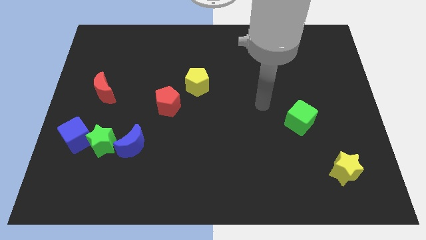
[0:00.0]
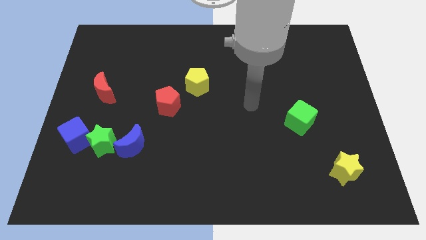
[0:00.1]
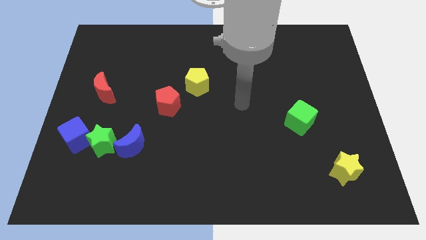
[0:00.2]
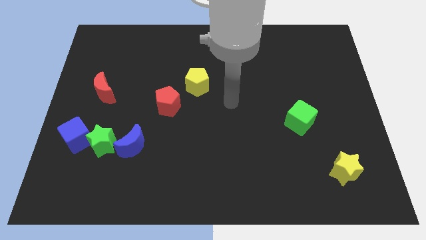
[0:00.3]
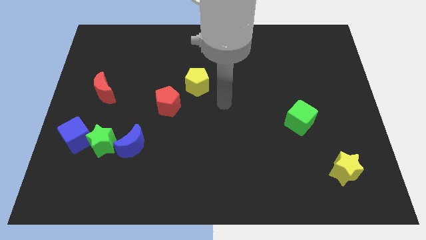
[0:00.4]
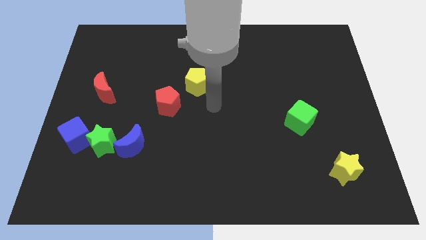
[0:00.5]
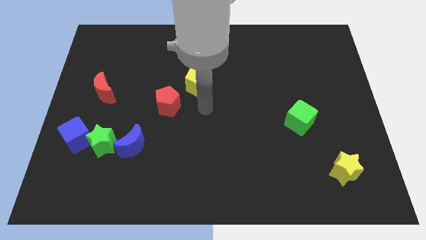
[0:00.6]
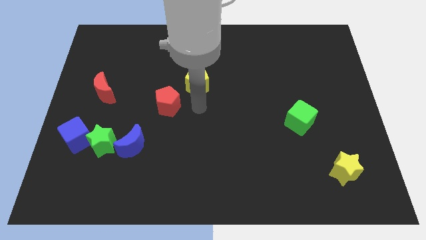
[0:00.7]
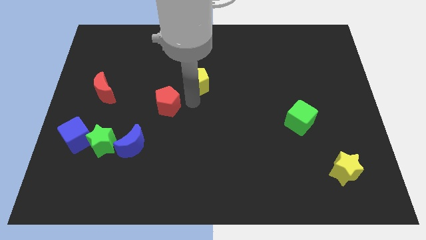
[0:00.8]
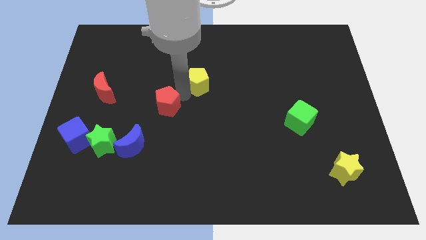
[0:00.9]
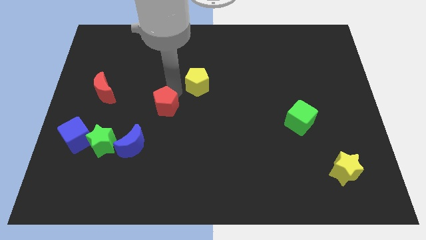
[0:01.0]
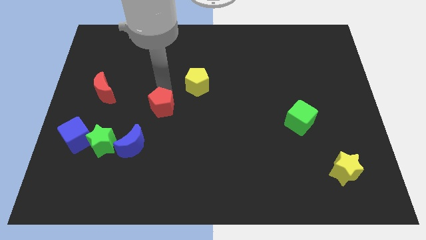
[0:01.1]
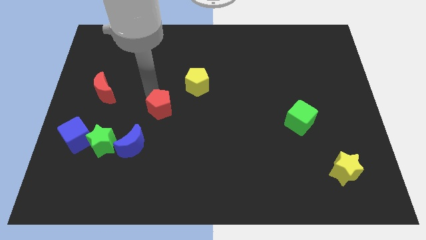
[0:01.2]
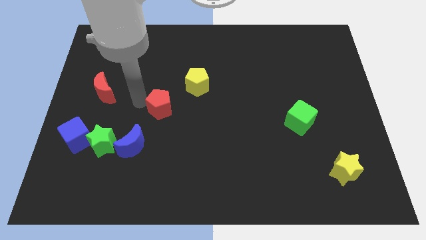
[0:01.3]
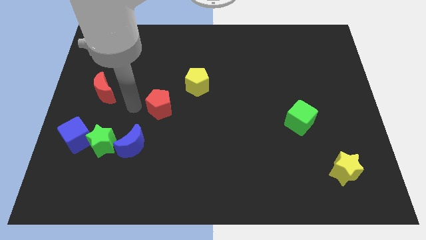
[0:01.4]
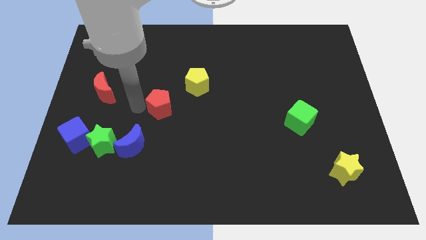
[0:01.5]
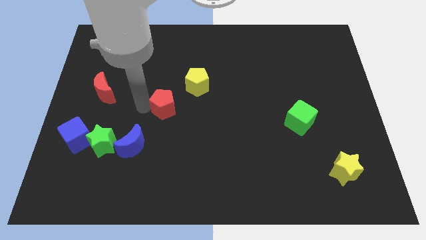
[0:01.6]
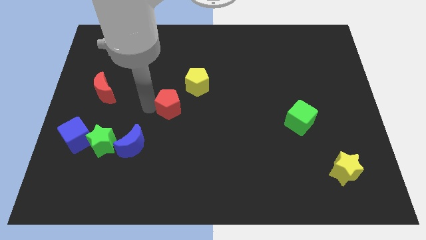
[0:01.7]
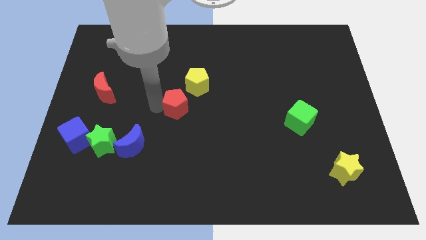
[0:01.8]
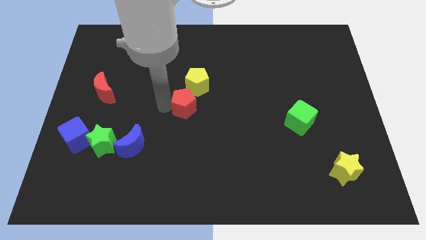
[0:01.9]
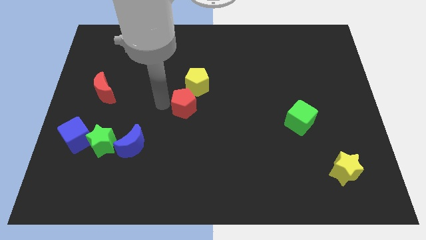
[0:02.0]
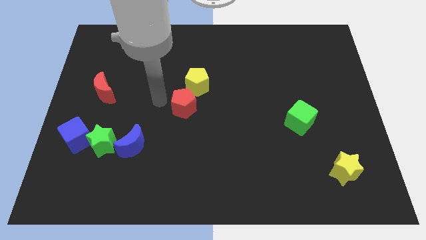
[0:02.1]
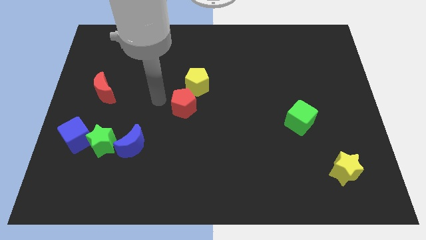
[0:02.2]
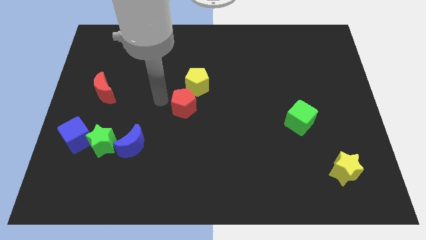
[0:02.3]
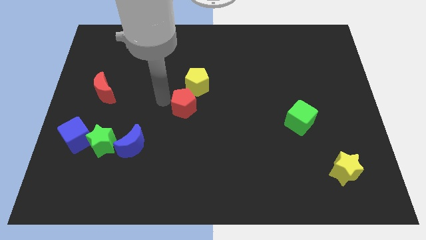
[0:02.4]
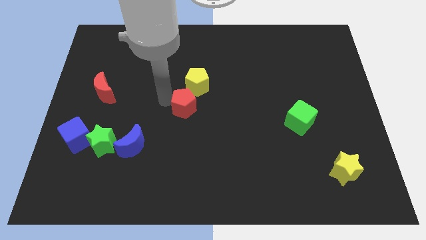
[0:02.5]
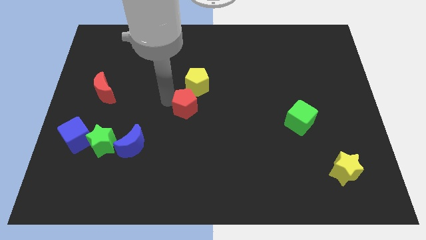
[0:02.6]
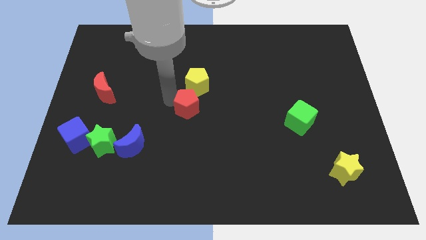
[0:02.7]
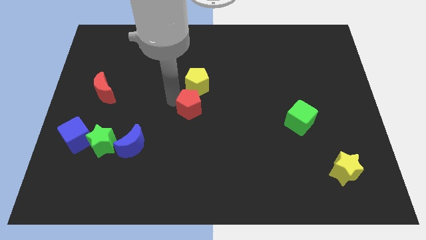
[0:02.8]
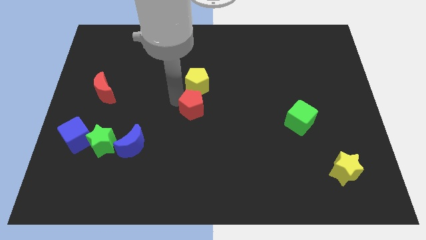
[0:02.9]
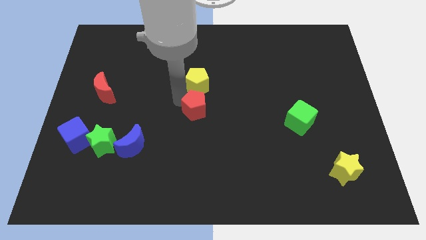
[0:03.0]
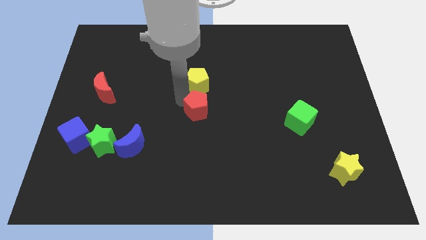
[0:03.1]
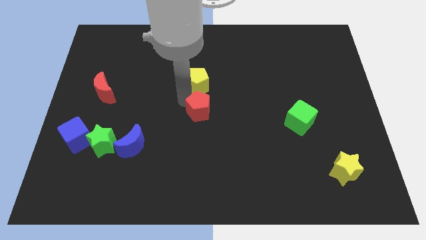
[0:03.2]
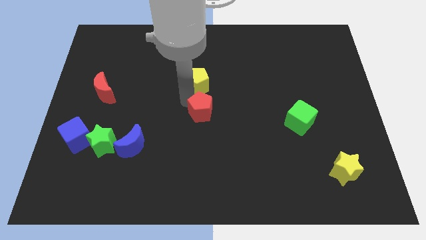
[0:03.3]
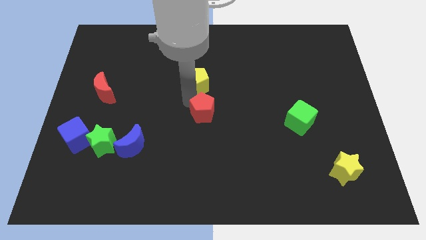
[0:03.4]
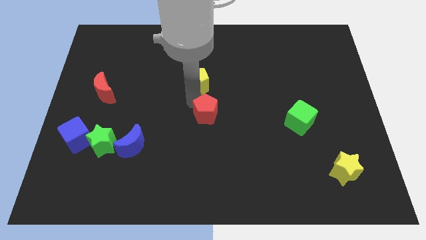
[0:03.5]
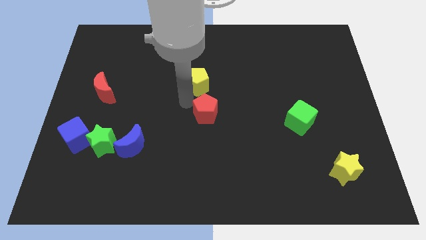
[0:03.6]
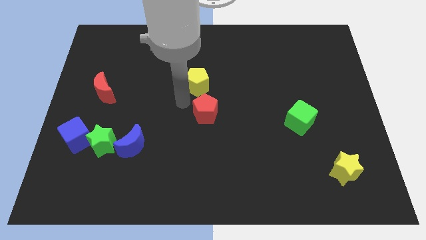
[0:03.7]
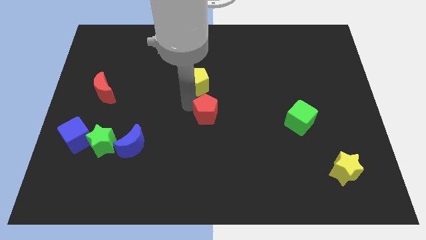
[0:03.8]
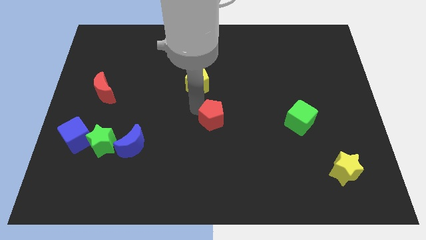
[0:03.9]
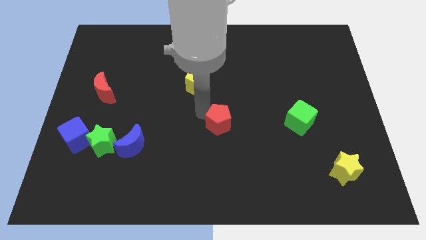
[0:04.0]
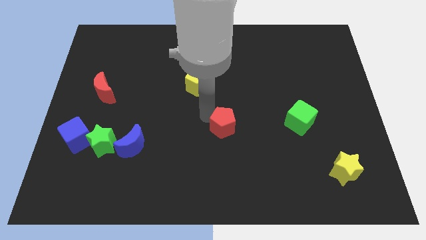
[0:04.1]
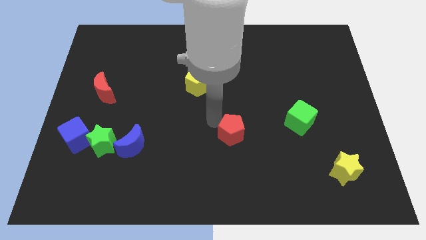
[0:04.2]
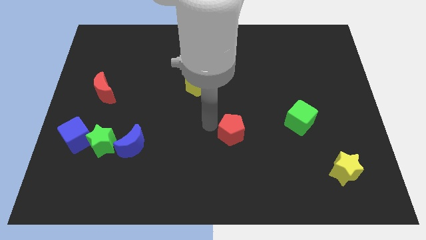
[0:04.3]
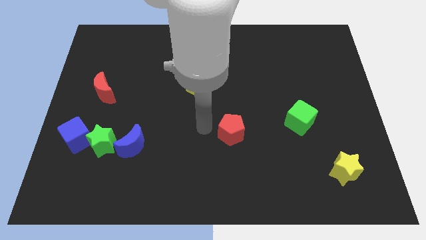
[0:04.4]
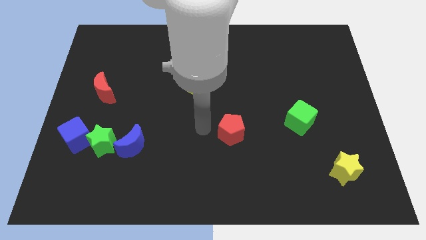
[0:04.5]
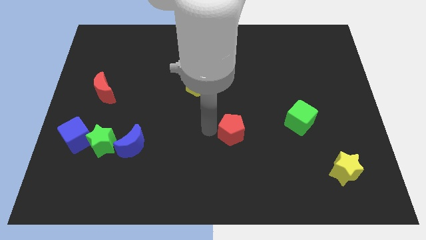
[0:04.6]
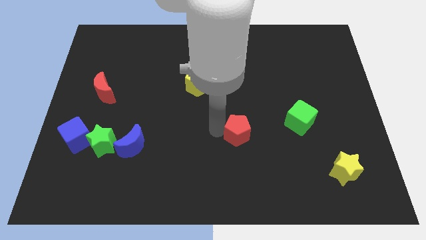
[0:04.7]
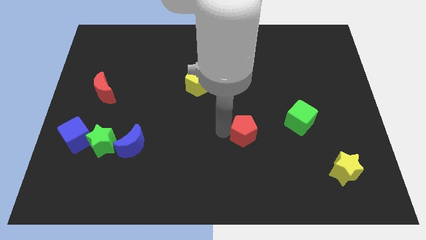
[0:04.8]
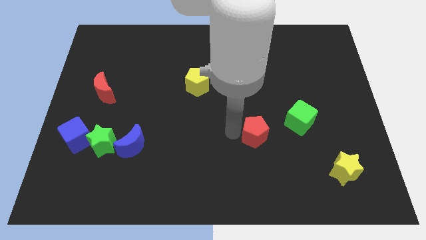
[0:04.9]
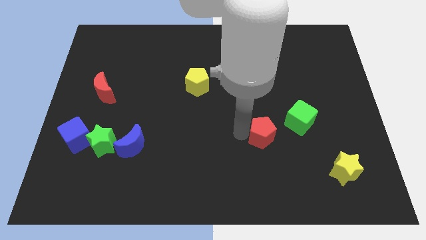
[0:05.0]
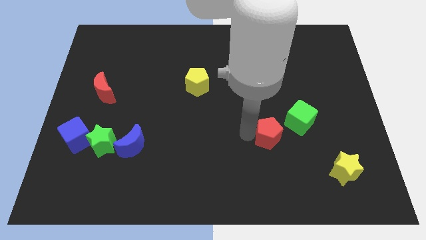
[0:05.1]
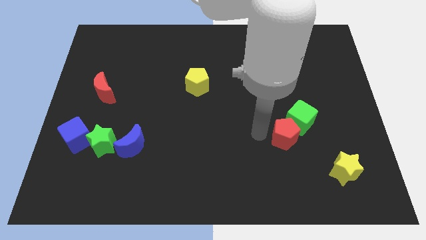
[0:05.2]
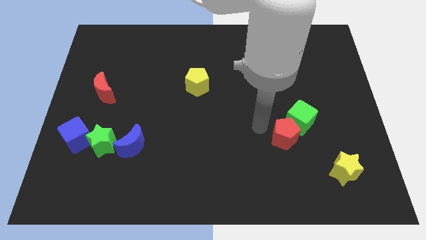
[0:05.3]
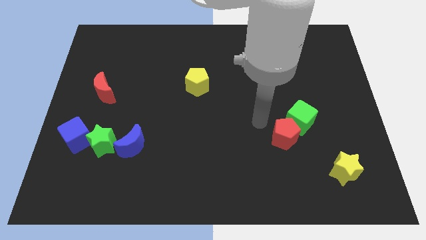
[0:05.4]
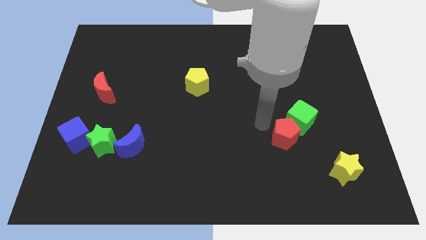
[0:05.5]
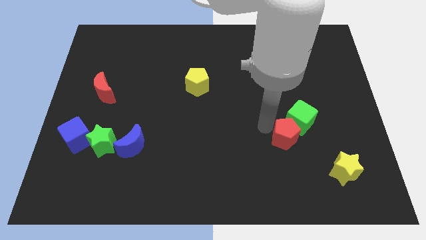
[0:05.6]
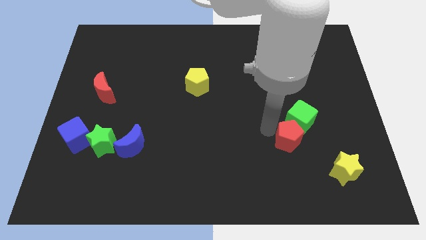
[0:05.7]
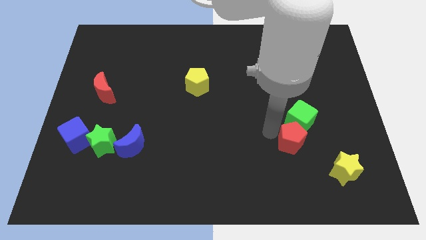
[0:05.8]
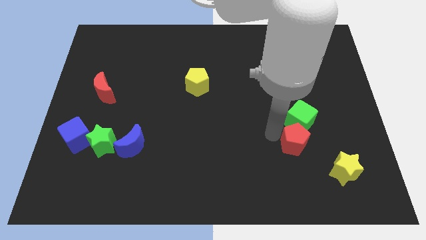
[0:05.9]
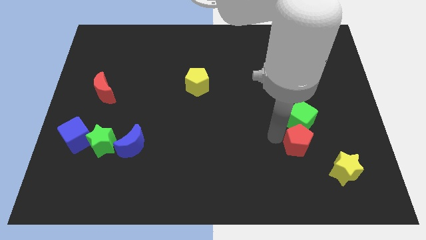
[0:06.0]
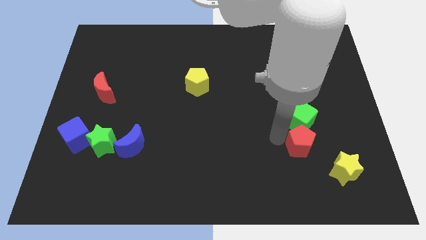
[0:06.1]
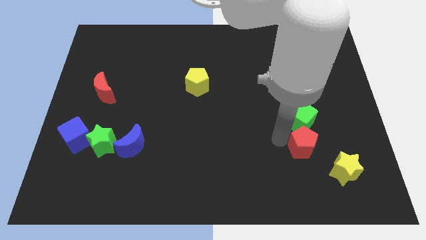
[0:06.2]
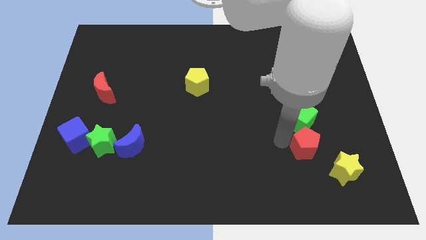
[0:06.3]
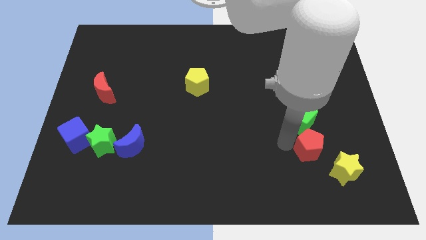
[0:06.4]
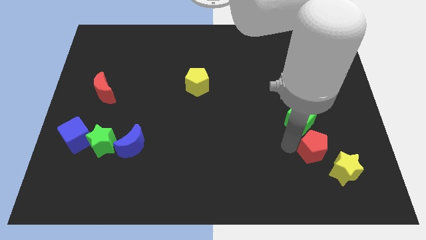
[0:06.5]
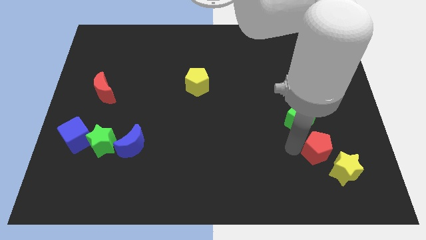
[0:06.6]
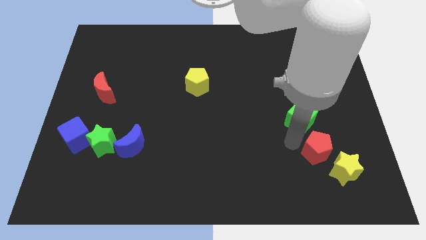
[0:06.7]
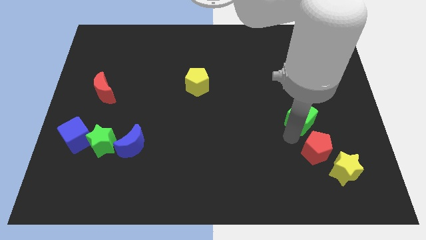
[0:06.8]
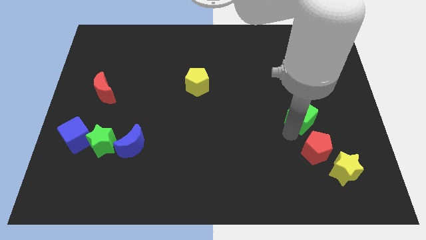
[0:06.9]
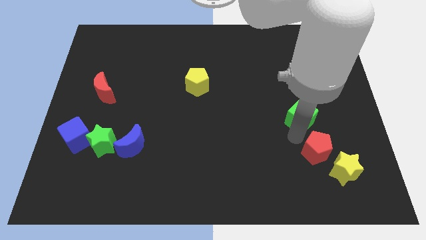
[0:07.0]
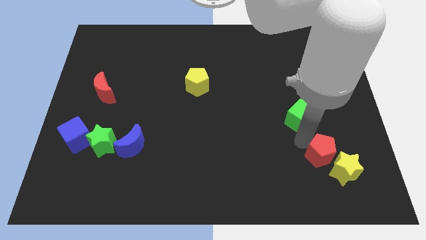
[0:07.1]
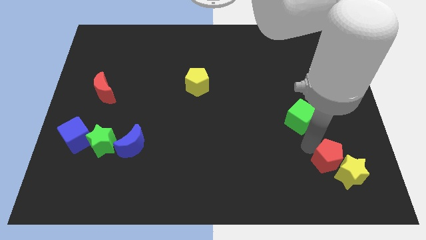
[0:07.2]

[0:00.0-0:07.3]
move the red pentagon next to the yellow star

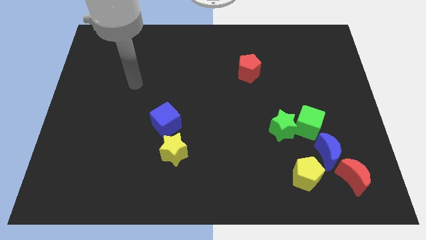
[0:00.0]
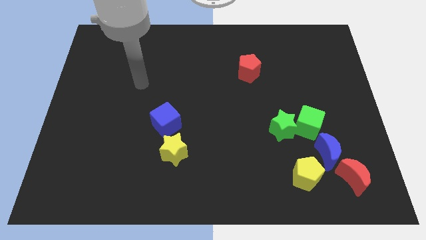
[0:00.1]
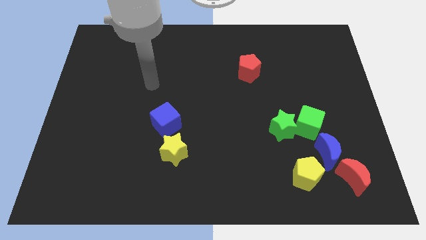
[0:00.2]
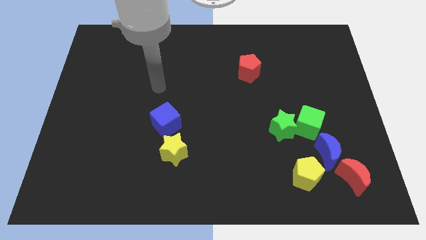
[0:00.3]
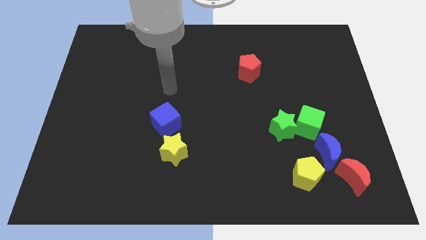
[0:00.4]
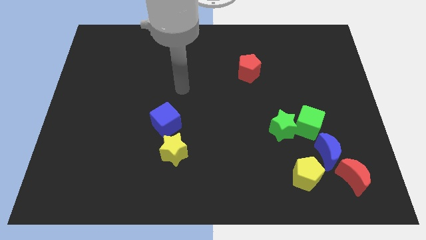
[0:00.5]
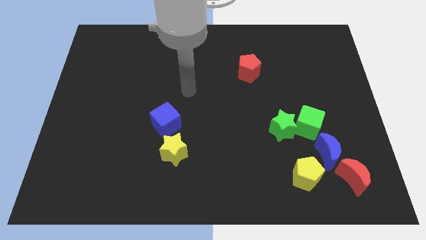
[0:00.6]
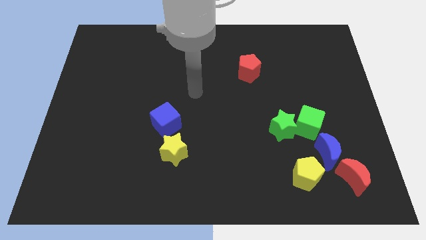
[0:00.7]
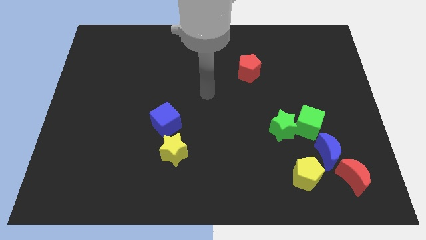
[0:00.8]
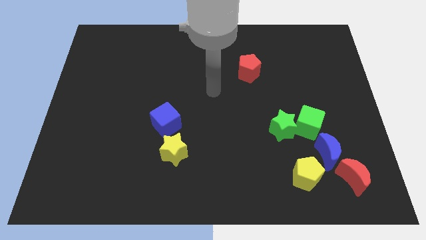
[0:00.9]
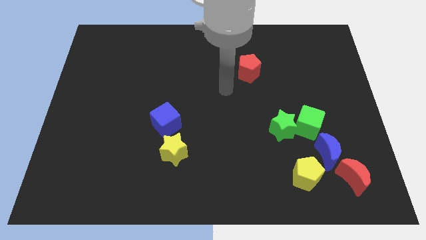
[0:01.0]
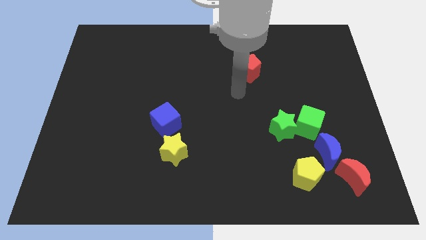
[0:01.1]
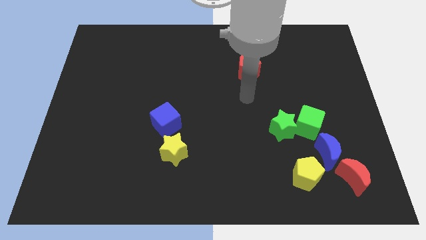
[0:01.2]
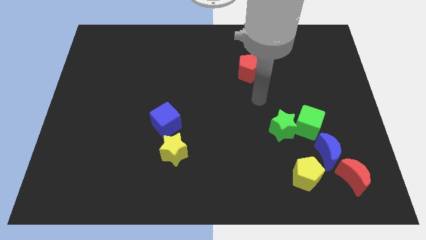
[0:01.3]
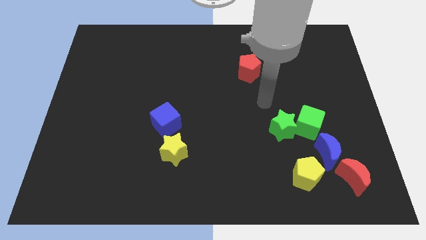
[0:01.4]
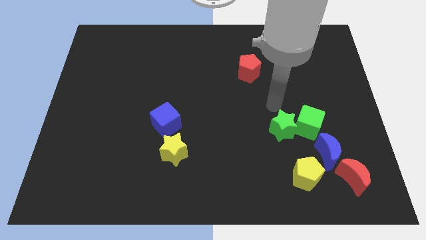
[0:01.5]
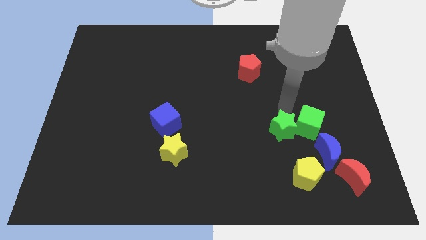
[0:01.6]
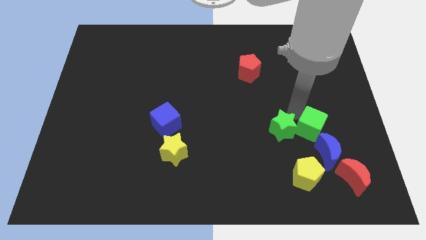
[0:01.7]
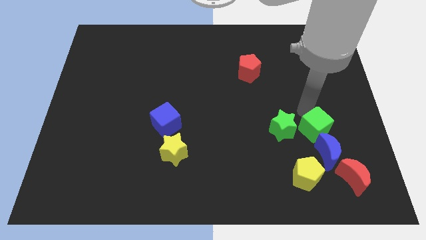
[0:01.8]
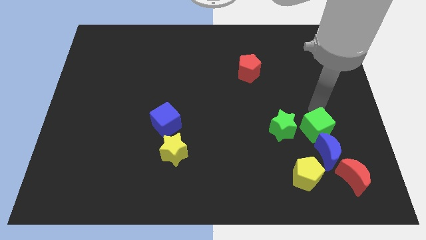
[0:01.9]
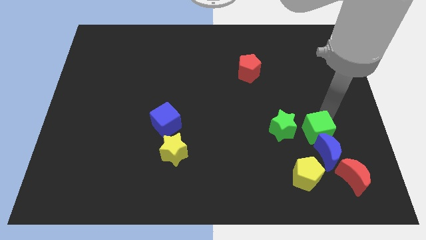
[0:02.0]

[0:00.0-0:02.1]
push the blue moon to the green cube
